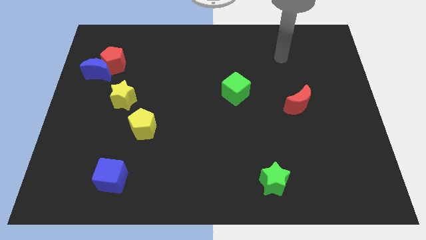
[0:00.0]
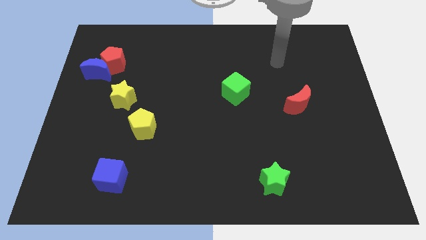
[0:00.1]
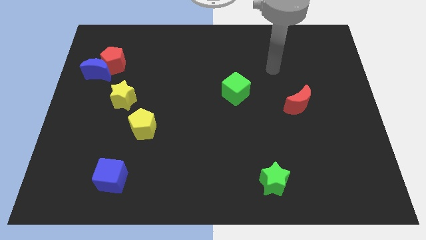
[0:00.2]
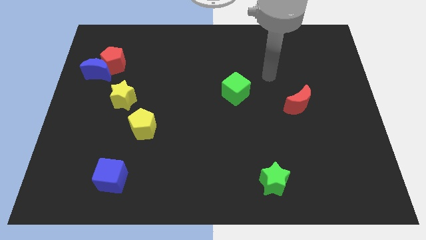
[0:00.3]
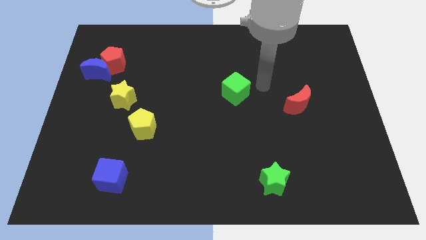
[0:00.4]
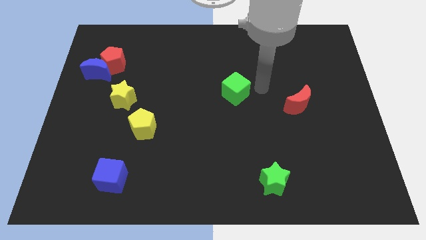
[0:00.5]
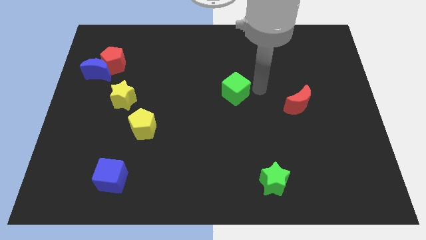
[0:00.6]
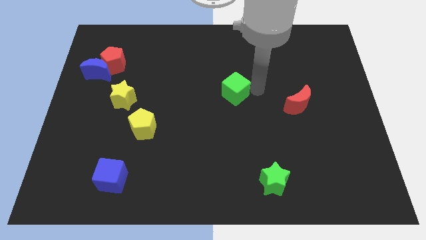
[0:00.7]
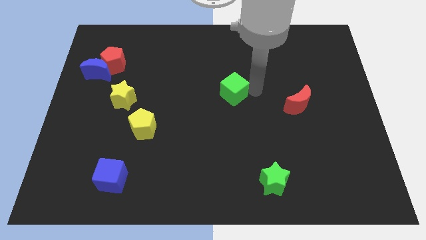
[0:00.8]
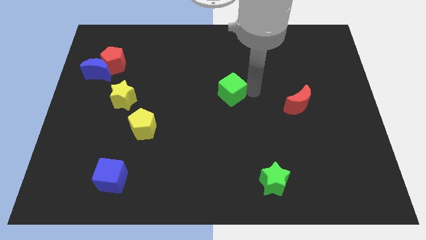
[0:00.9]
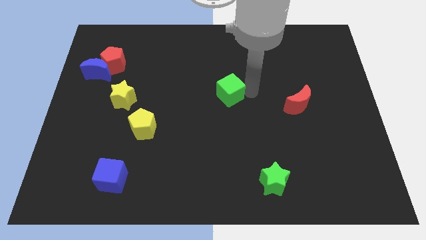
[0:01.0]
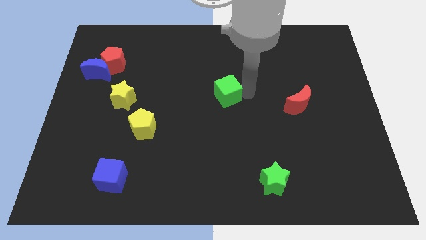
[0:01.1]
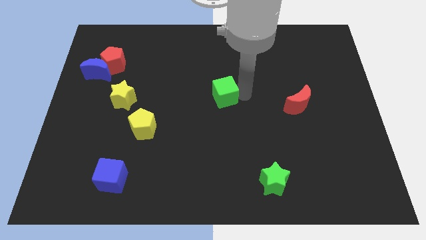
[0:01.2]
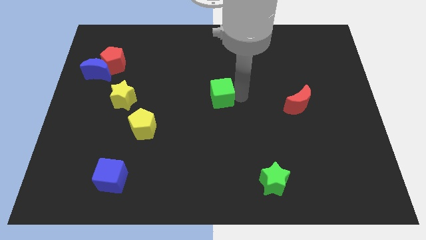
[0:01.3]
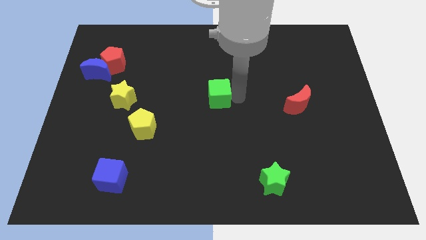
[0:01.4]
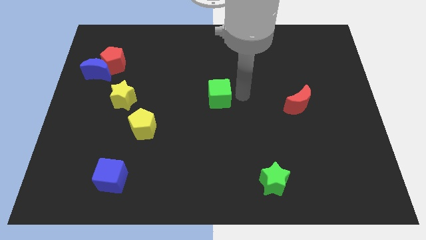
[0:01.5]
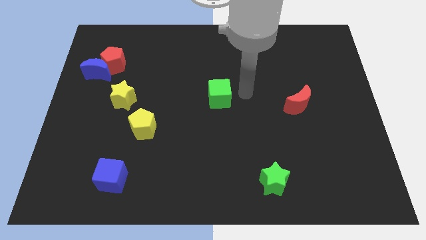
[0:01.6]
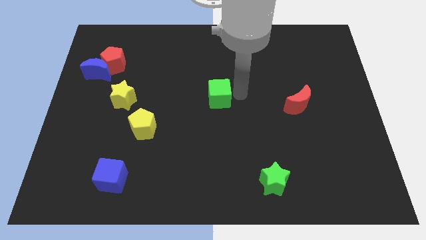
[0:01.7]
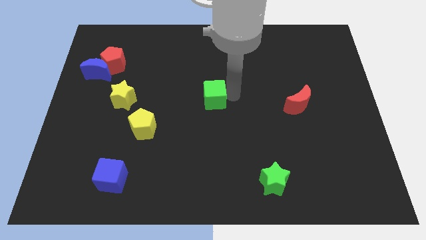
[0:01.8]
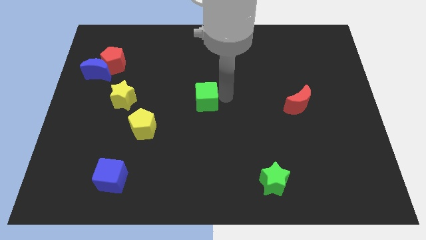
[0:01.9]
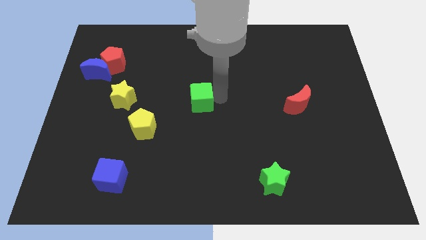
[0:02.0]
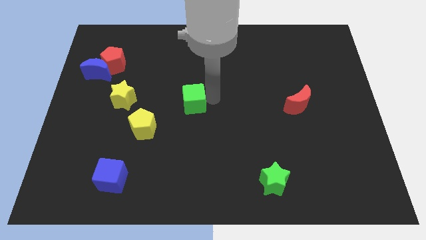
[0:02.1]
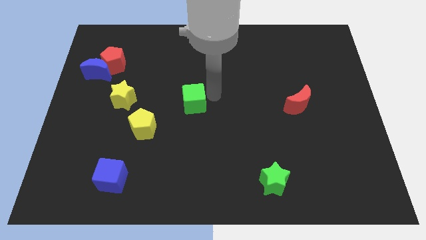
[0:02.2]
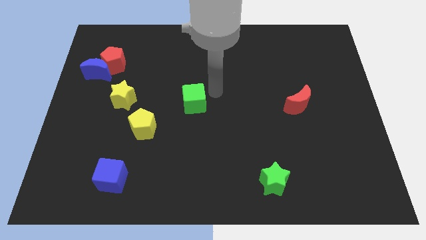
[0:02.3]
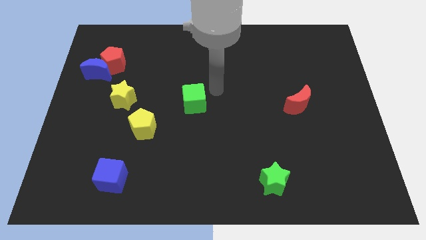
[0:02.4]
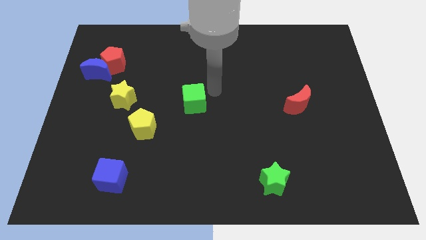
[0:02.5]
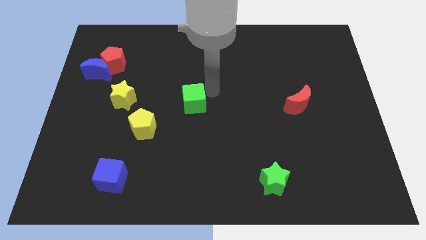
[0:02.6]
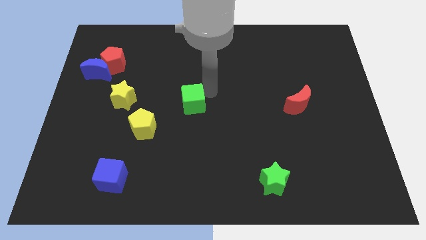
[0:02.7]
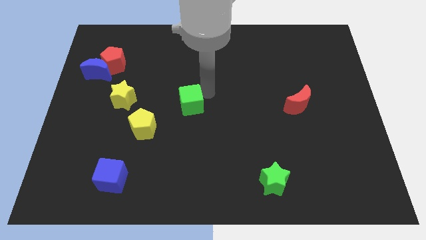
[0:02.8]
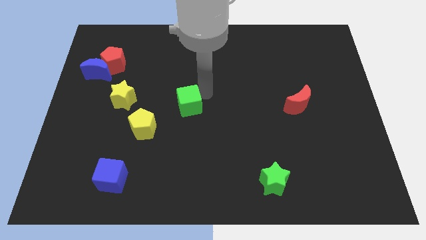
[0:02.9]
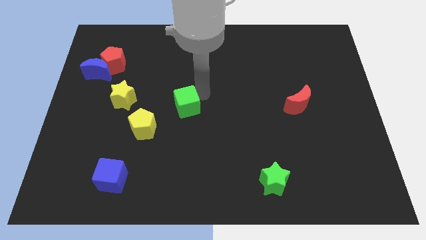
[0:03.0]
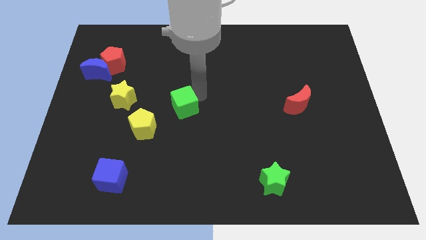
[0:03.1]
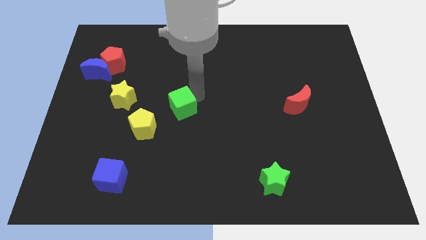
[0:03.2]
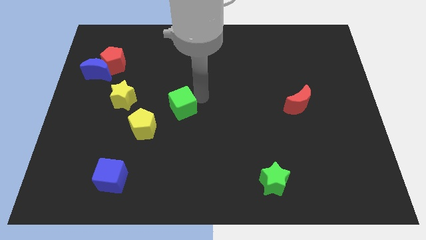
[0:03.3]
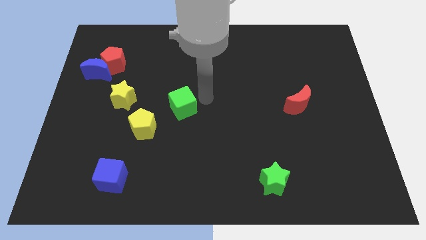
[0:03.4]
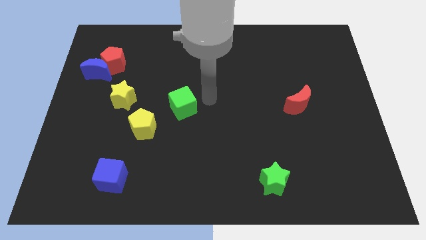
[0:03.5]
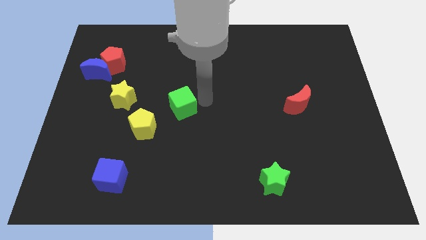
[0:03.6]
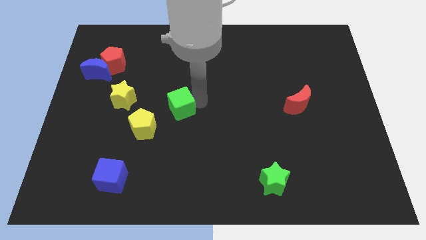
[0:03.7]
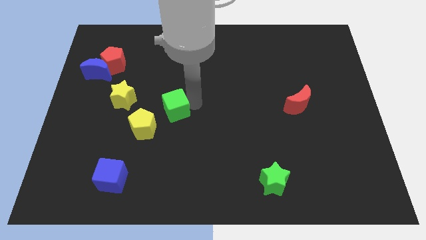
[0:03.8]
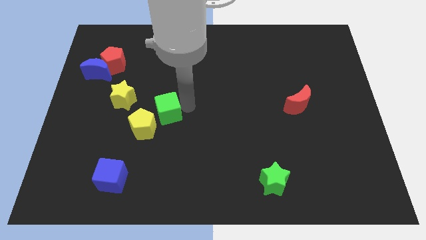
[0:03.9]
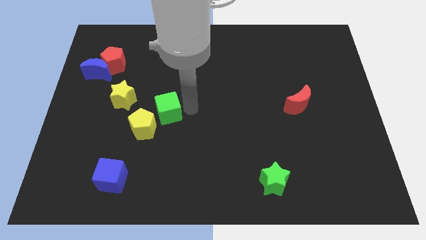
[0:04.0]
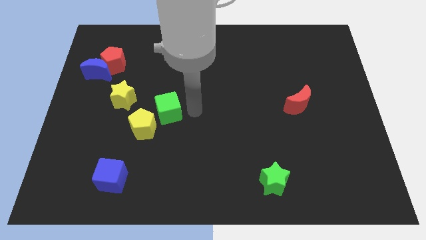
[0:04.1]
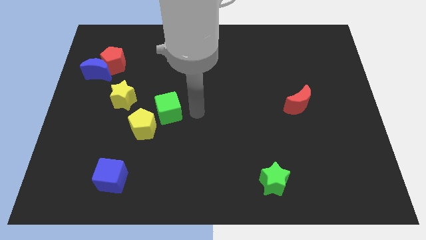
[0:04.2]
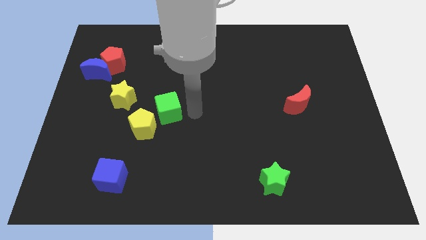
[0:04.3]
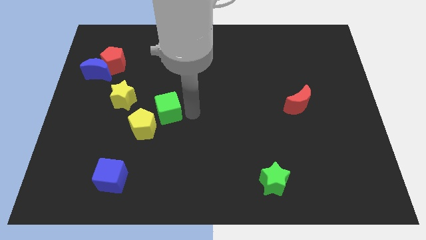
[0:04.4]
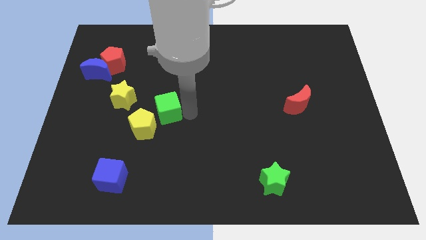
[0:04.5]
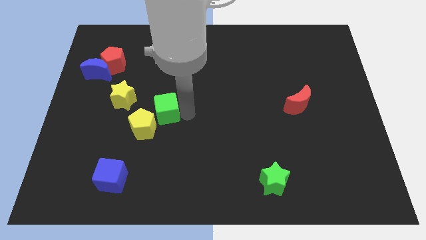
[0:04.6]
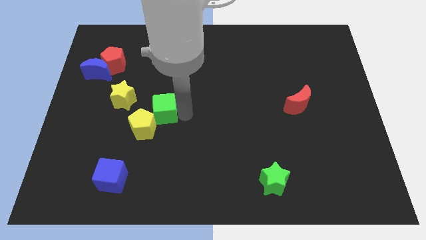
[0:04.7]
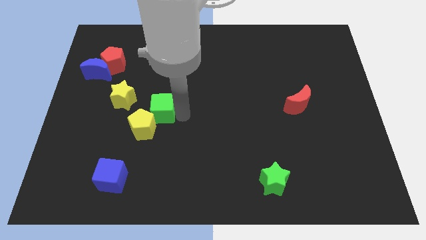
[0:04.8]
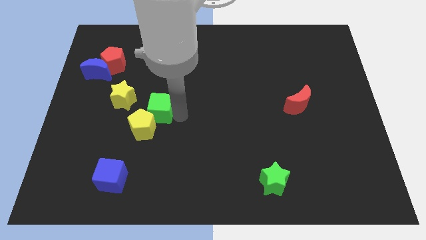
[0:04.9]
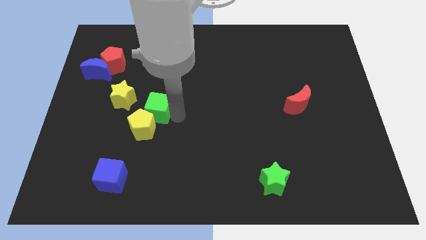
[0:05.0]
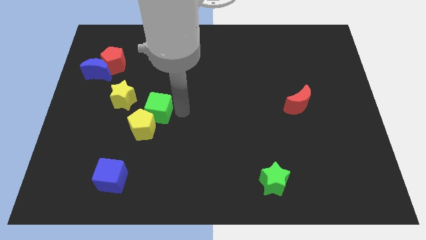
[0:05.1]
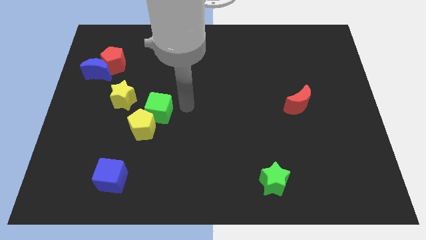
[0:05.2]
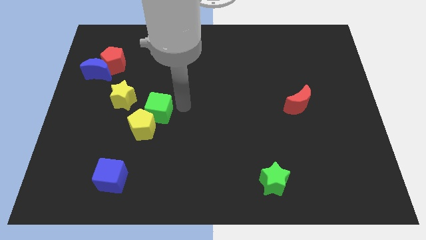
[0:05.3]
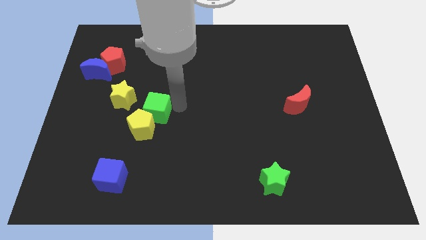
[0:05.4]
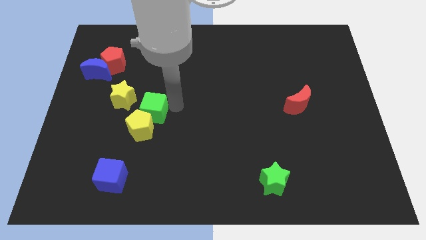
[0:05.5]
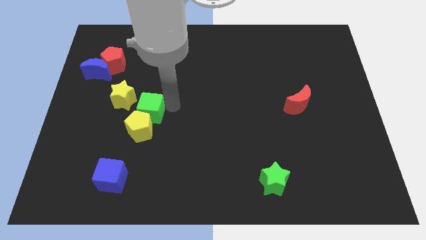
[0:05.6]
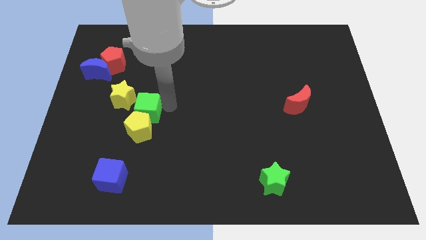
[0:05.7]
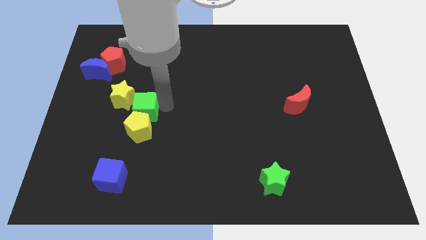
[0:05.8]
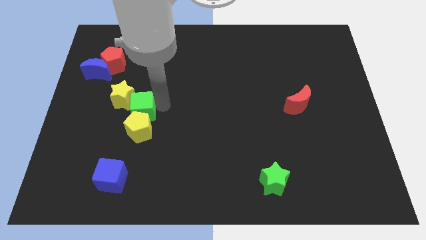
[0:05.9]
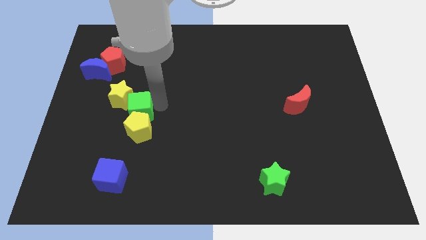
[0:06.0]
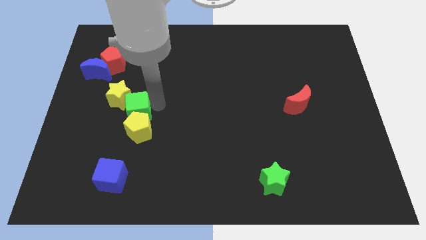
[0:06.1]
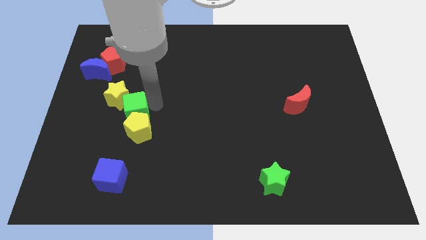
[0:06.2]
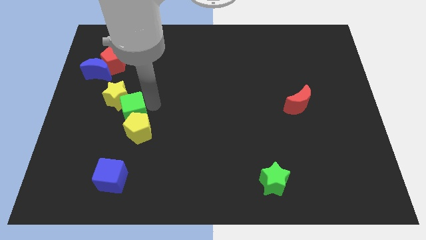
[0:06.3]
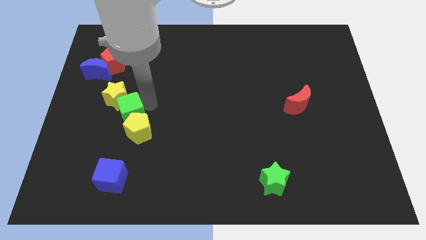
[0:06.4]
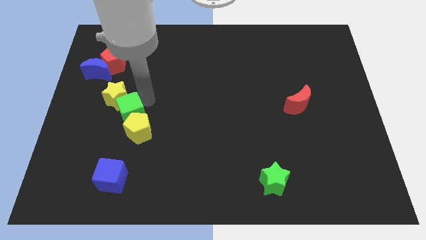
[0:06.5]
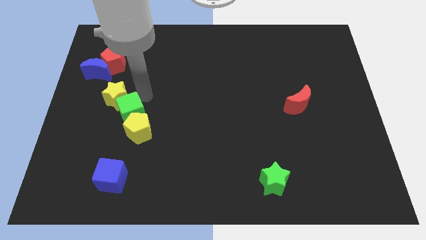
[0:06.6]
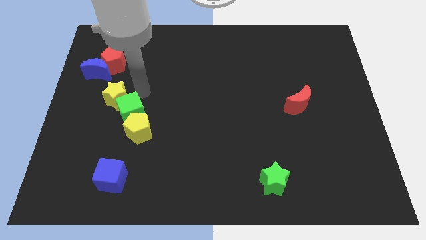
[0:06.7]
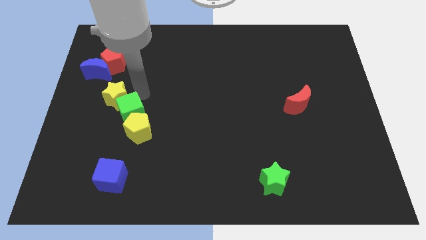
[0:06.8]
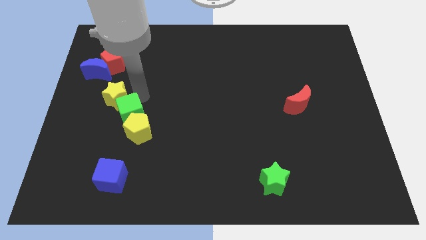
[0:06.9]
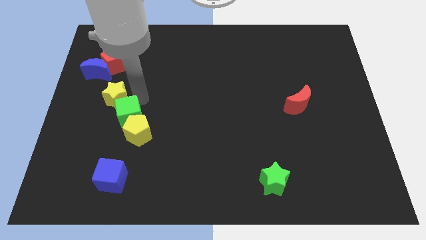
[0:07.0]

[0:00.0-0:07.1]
put the green cube above the blue cube
